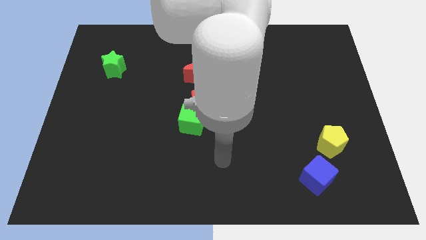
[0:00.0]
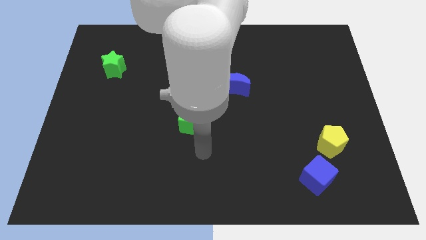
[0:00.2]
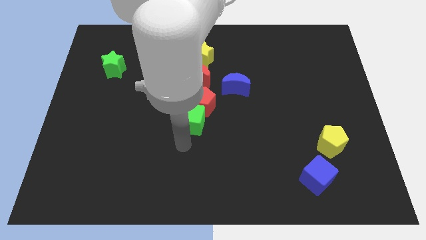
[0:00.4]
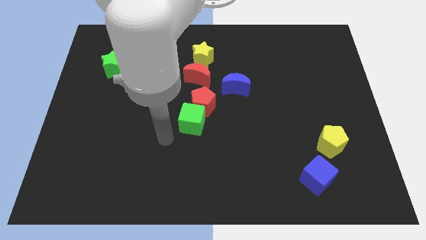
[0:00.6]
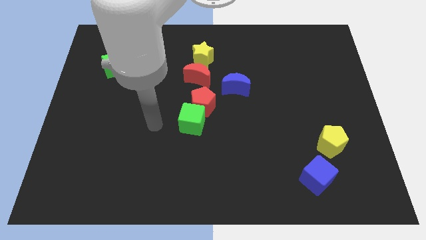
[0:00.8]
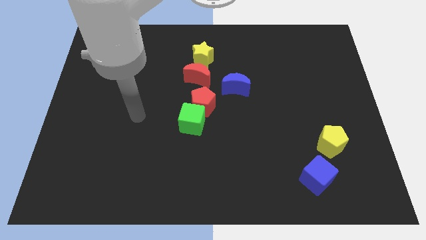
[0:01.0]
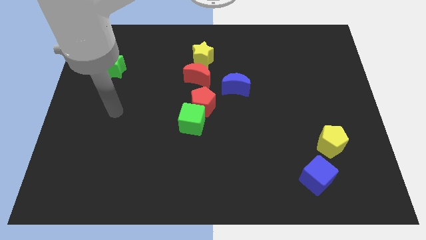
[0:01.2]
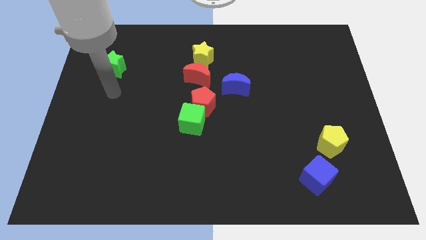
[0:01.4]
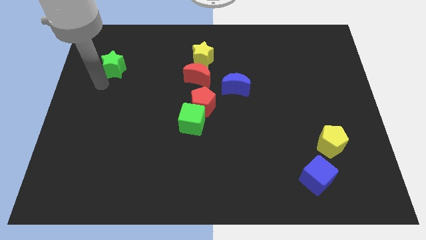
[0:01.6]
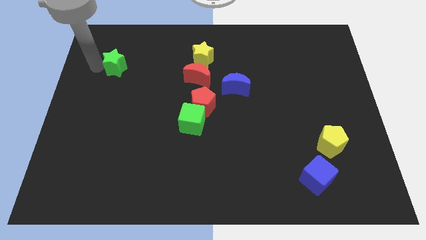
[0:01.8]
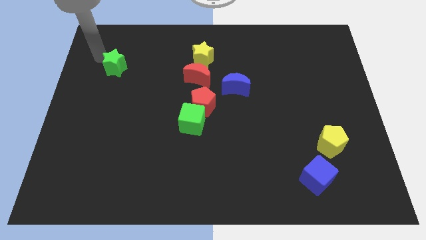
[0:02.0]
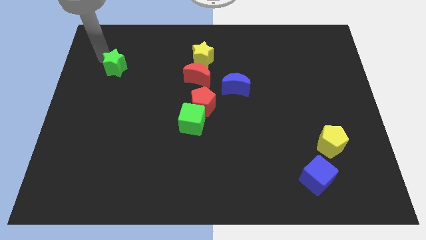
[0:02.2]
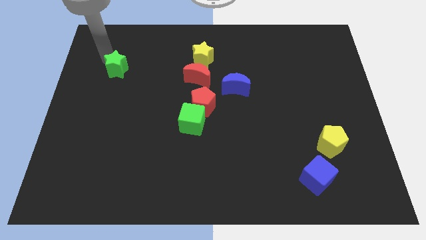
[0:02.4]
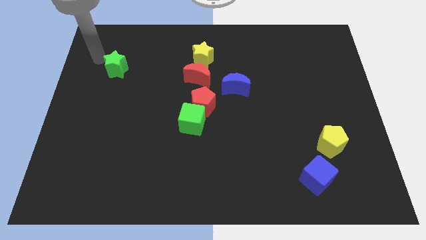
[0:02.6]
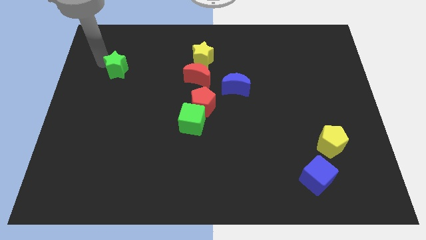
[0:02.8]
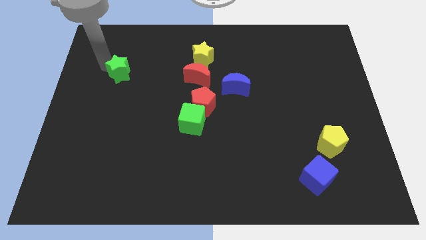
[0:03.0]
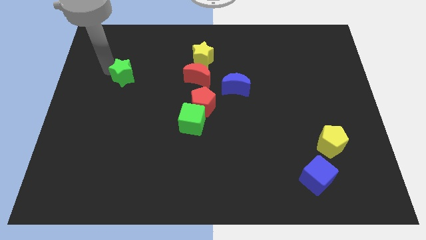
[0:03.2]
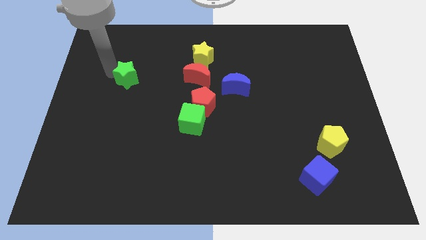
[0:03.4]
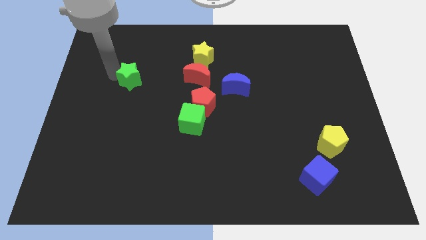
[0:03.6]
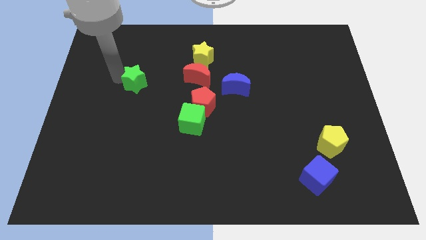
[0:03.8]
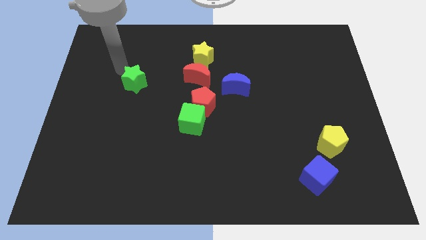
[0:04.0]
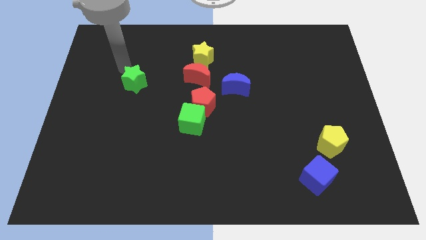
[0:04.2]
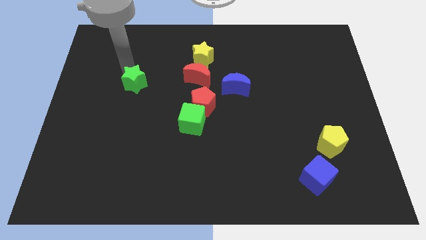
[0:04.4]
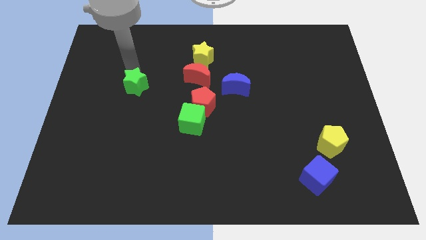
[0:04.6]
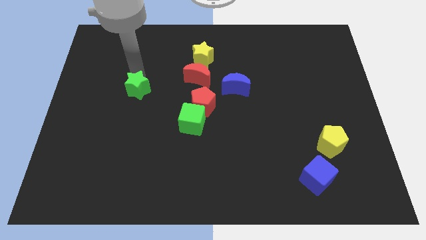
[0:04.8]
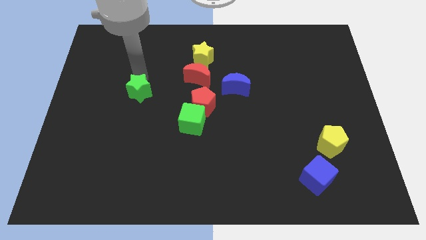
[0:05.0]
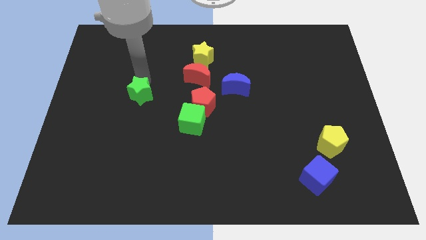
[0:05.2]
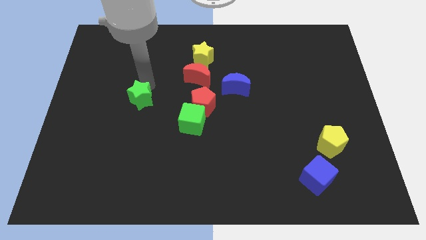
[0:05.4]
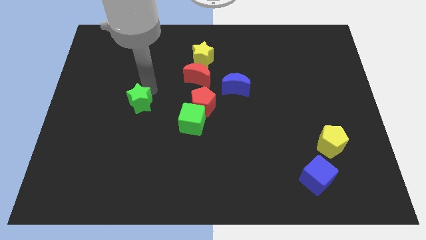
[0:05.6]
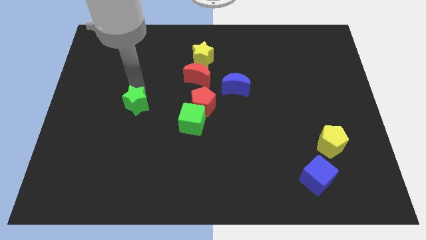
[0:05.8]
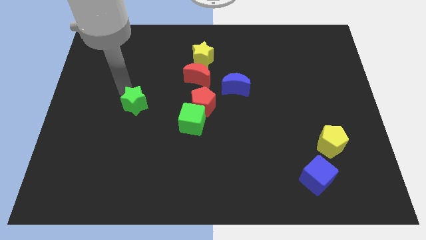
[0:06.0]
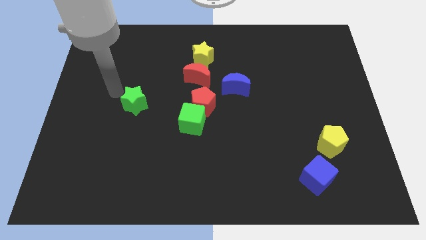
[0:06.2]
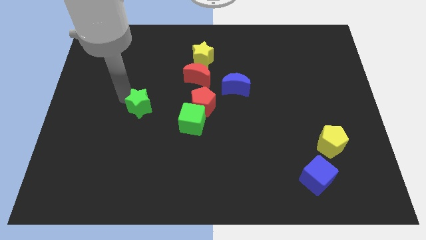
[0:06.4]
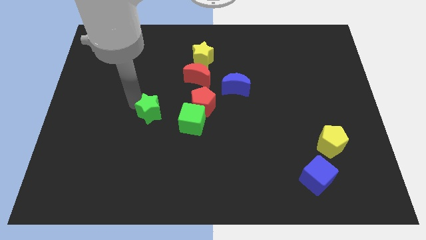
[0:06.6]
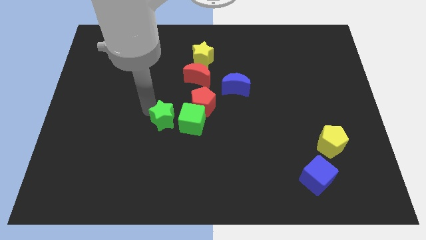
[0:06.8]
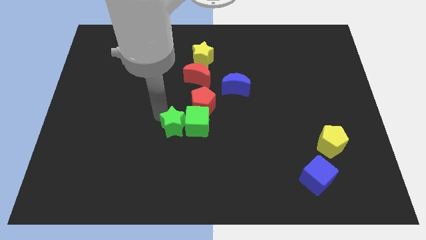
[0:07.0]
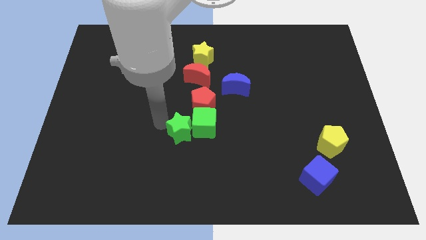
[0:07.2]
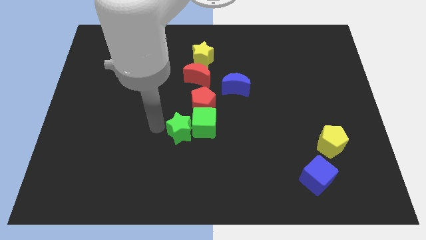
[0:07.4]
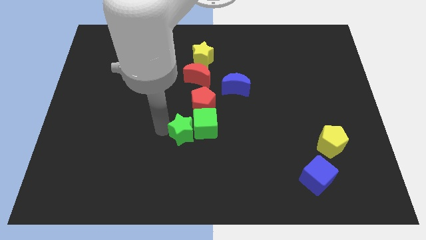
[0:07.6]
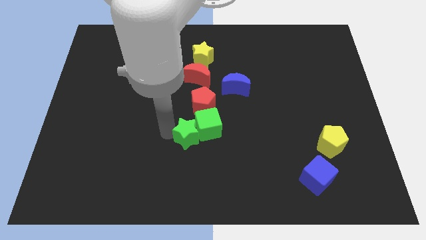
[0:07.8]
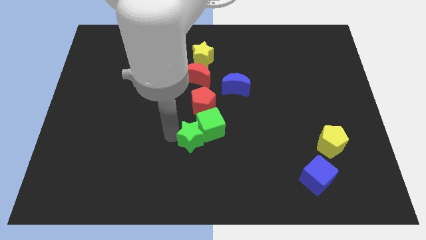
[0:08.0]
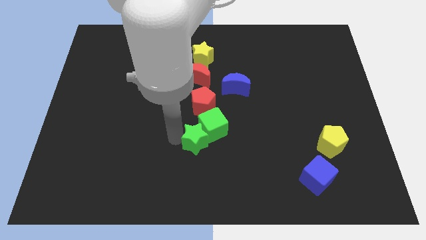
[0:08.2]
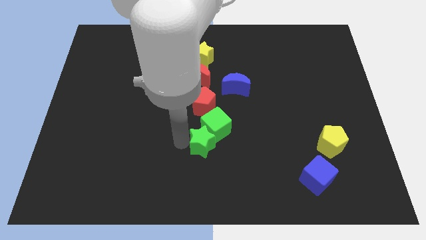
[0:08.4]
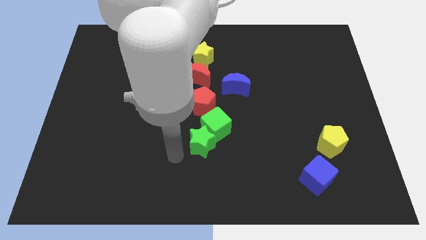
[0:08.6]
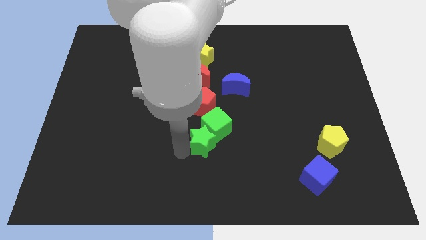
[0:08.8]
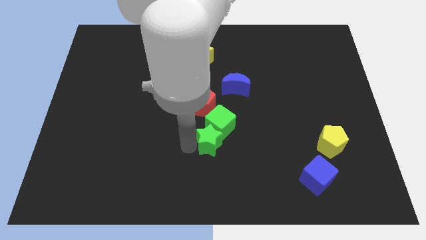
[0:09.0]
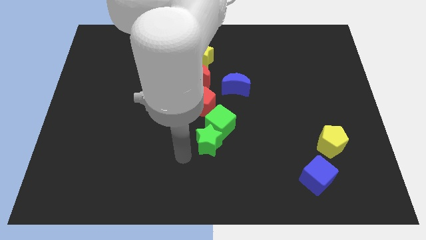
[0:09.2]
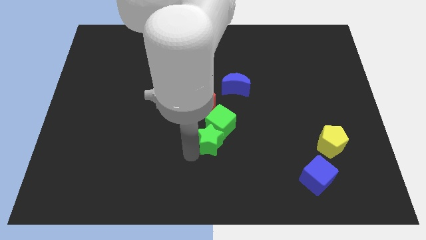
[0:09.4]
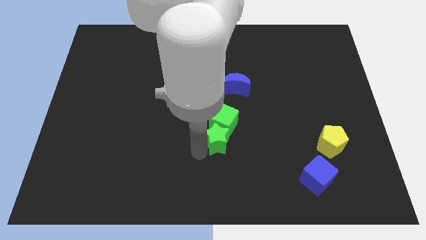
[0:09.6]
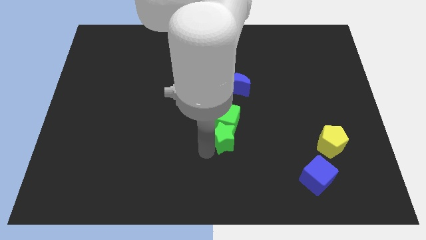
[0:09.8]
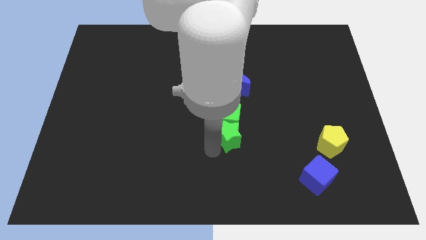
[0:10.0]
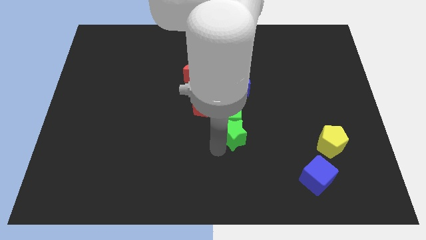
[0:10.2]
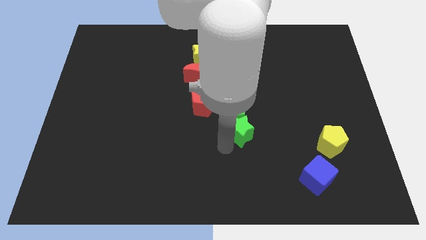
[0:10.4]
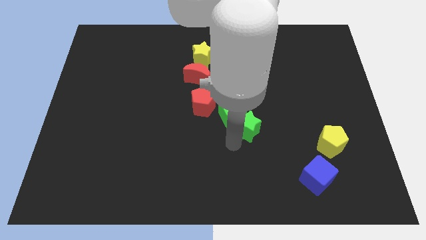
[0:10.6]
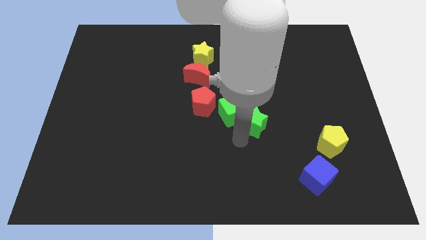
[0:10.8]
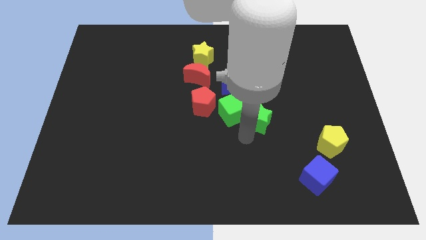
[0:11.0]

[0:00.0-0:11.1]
move the green star diagonally down and to the right of the blue moon

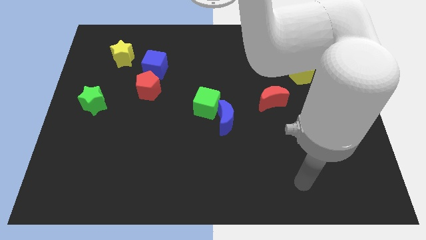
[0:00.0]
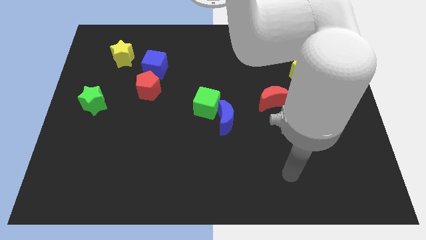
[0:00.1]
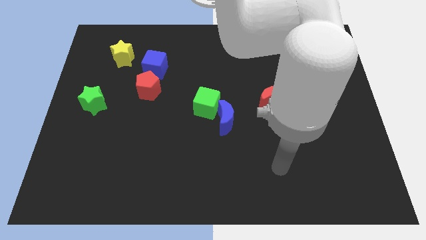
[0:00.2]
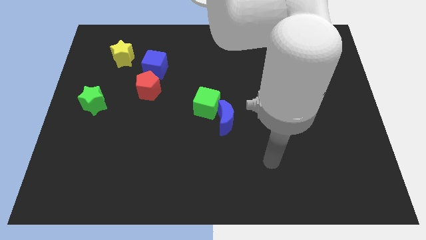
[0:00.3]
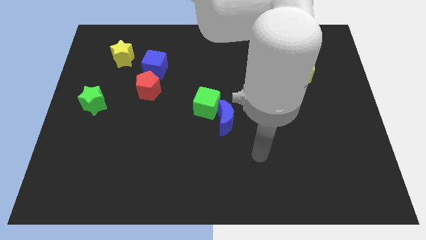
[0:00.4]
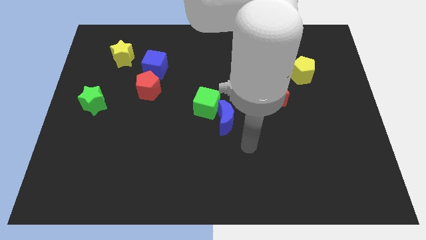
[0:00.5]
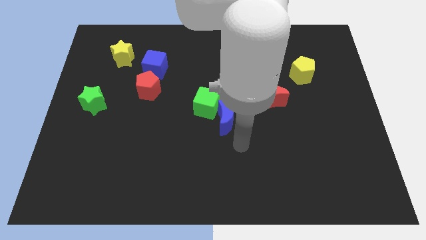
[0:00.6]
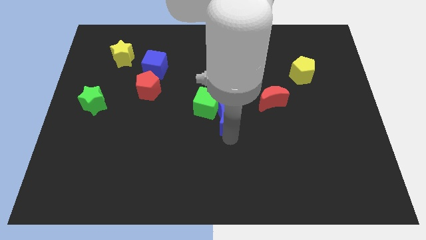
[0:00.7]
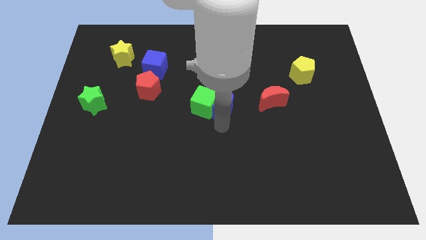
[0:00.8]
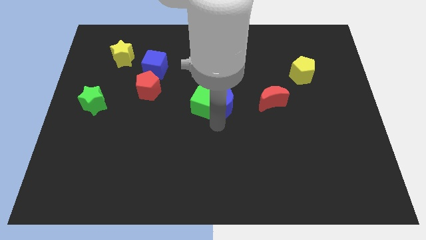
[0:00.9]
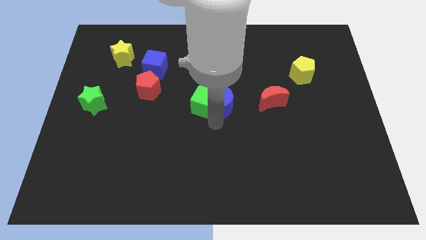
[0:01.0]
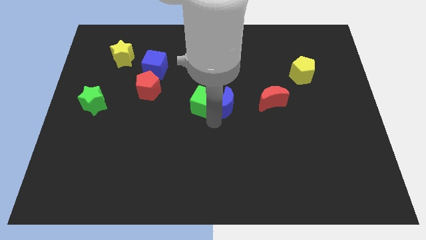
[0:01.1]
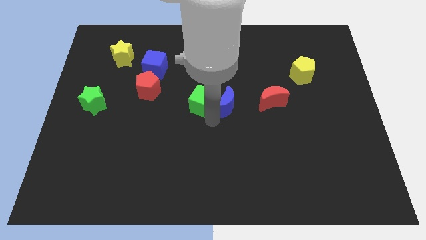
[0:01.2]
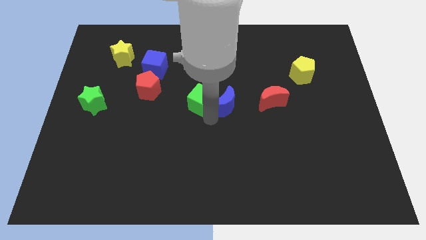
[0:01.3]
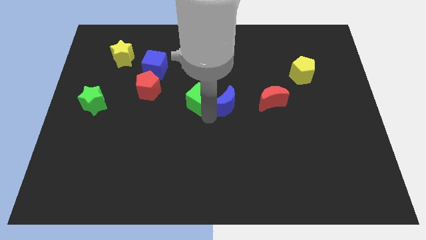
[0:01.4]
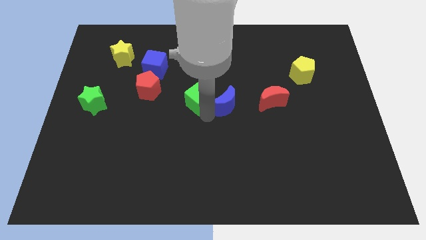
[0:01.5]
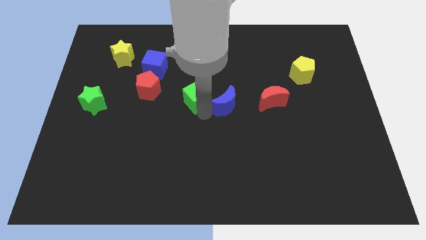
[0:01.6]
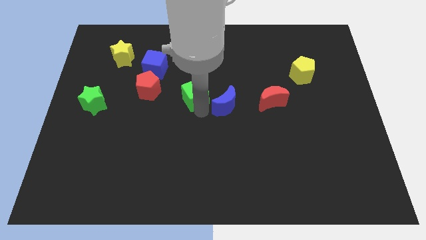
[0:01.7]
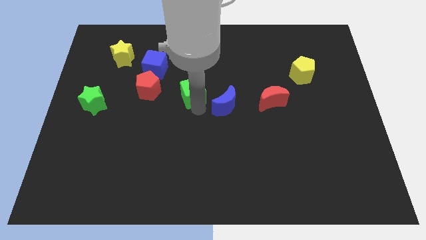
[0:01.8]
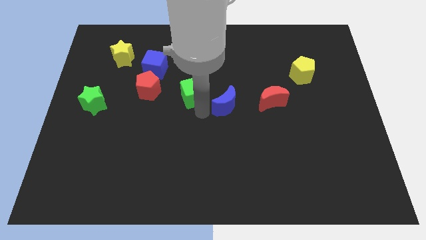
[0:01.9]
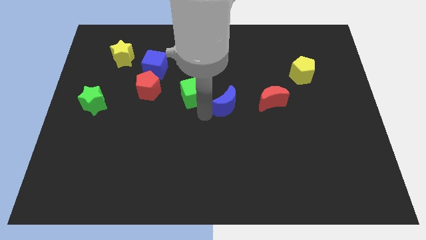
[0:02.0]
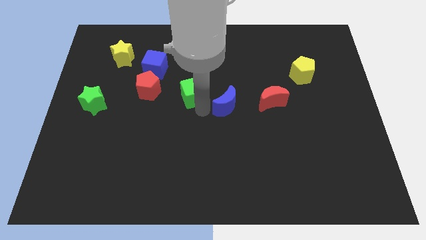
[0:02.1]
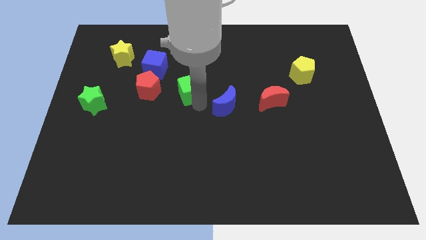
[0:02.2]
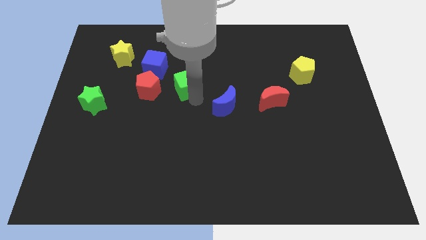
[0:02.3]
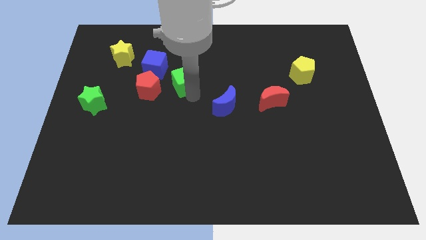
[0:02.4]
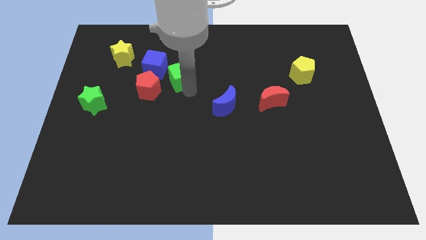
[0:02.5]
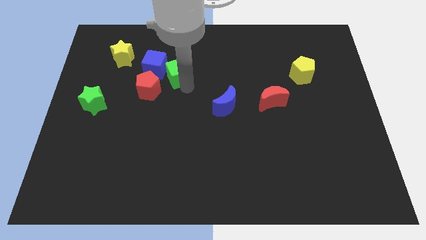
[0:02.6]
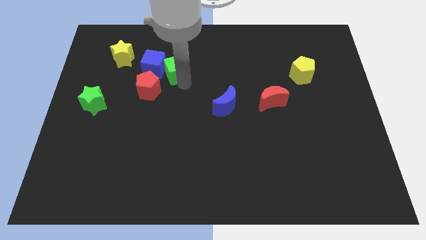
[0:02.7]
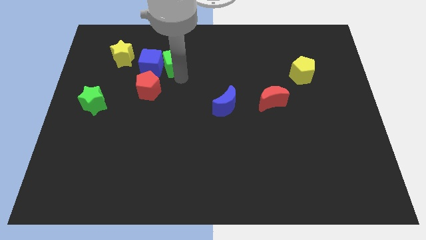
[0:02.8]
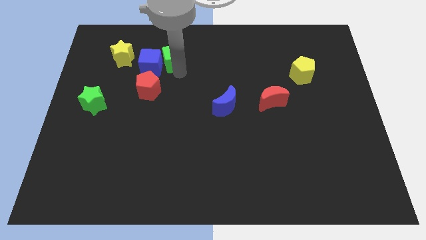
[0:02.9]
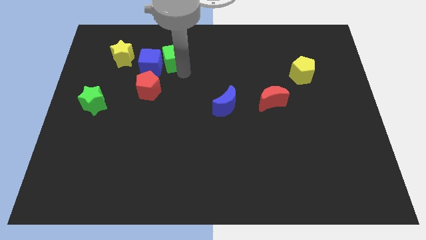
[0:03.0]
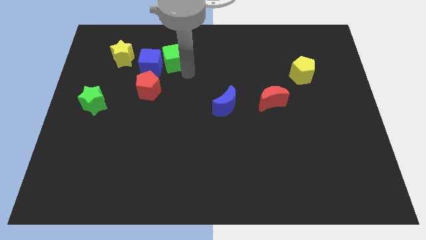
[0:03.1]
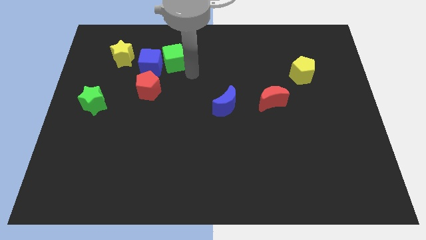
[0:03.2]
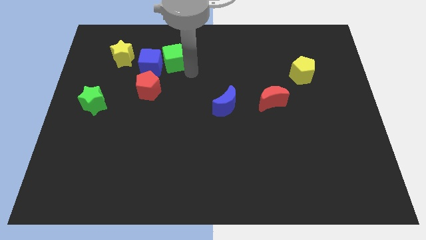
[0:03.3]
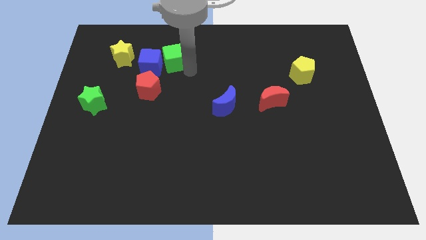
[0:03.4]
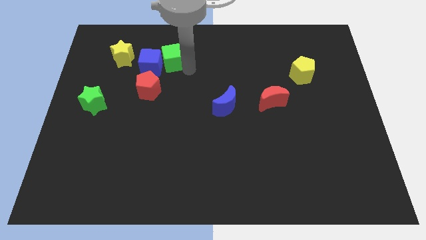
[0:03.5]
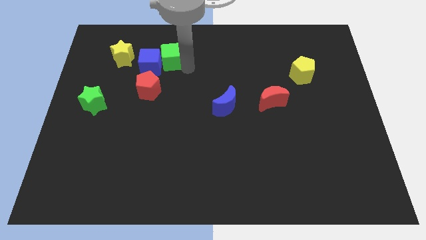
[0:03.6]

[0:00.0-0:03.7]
move the green cube to the top of the red pentagon
